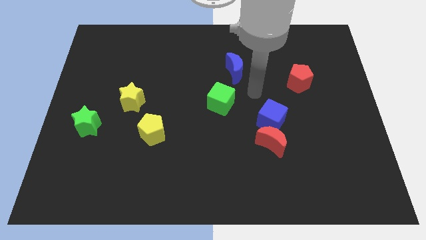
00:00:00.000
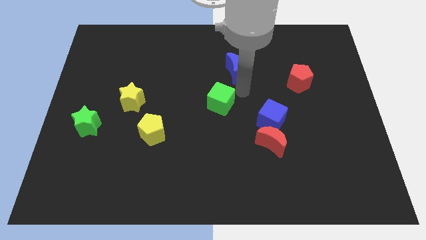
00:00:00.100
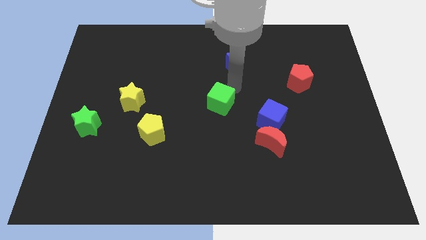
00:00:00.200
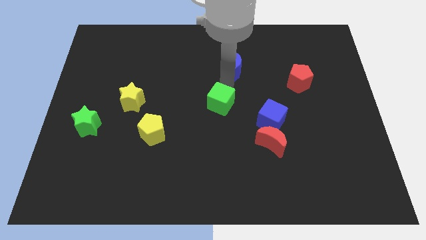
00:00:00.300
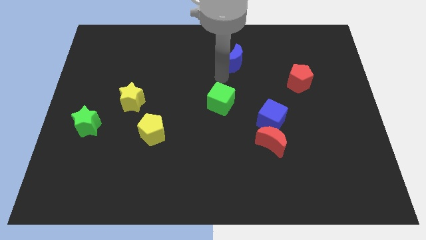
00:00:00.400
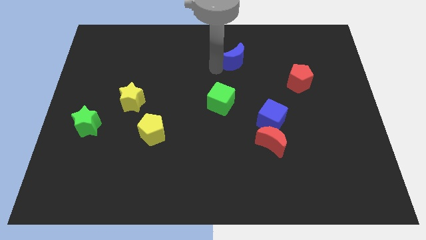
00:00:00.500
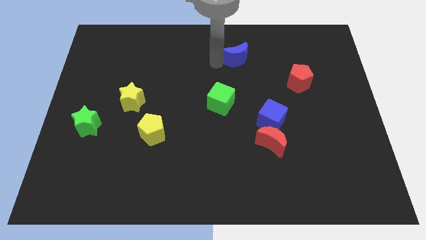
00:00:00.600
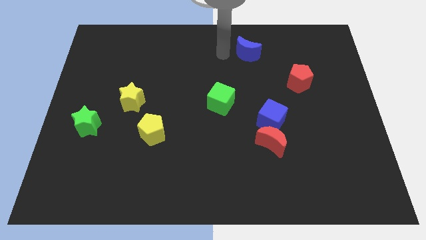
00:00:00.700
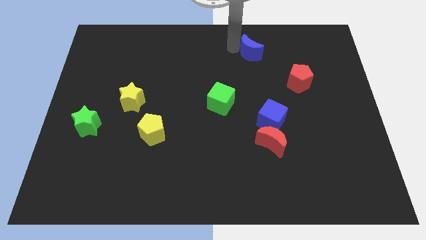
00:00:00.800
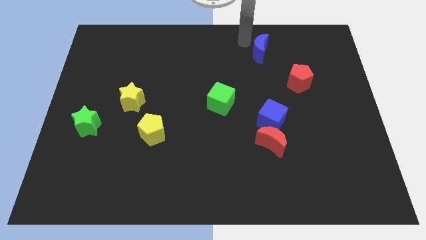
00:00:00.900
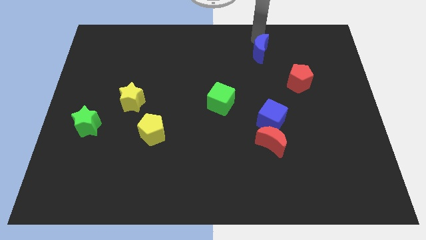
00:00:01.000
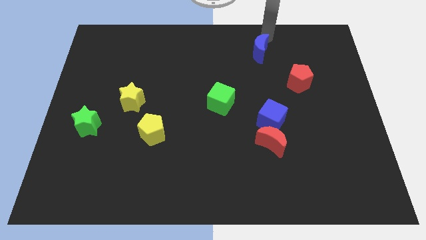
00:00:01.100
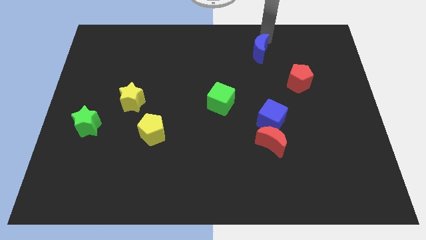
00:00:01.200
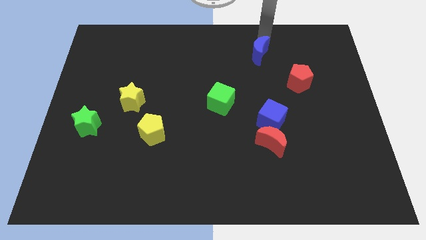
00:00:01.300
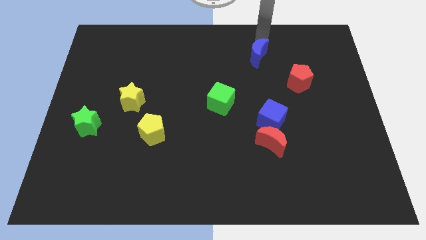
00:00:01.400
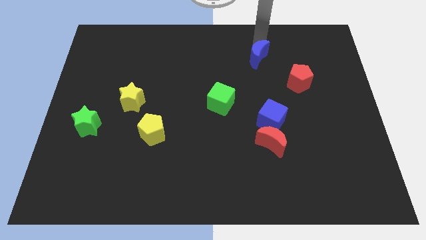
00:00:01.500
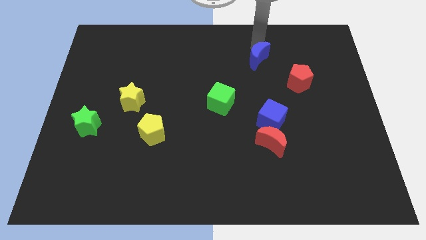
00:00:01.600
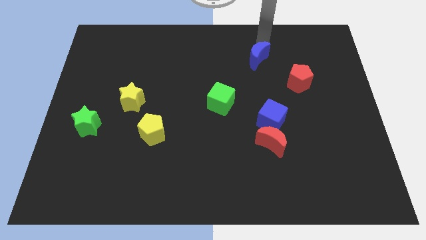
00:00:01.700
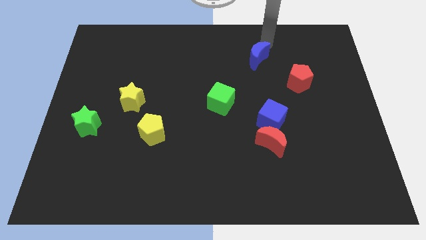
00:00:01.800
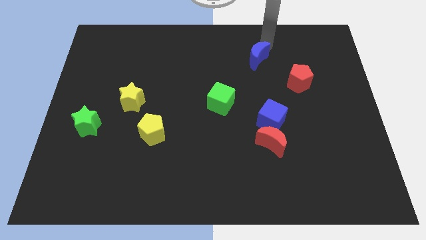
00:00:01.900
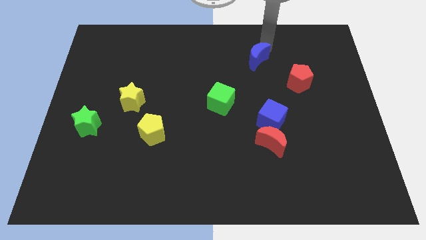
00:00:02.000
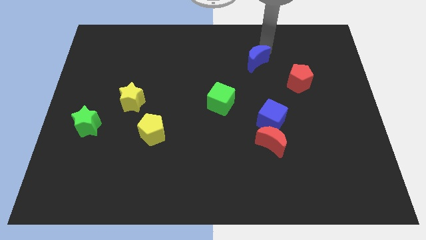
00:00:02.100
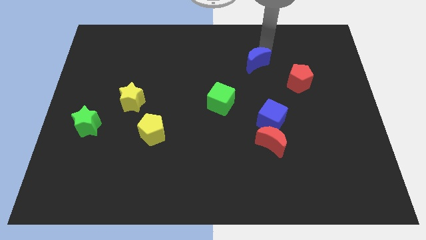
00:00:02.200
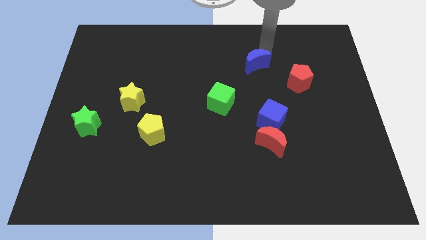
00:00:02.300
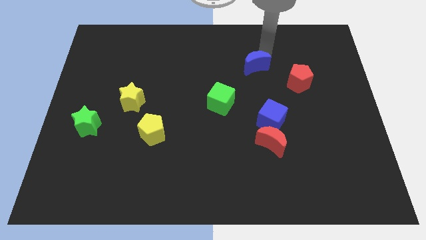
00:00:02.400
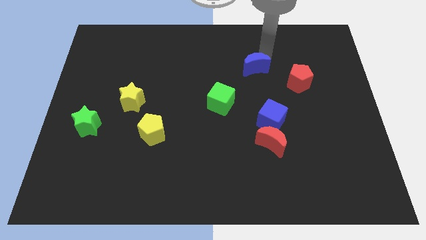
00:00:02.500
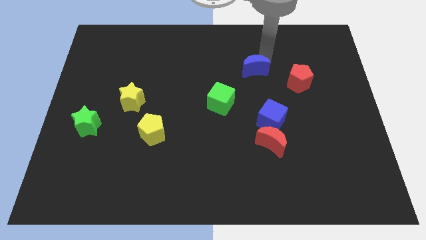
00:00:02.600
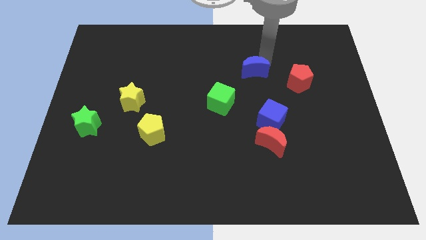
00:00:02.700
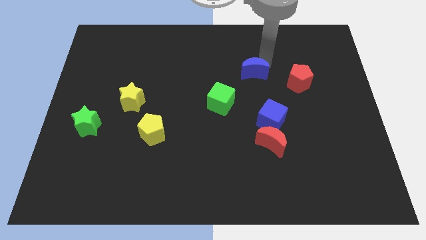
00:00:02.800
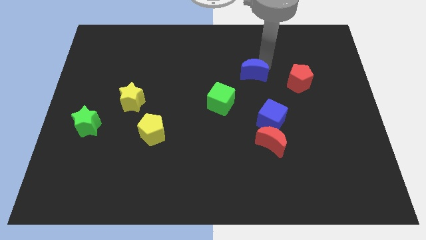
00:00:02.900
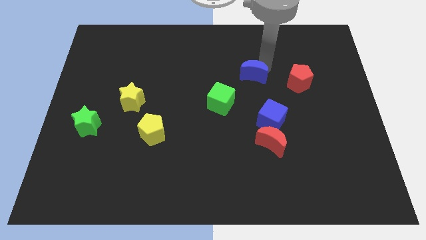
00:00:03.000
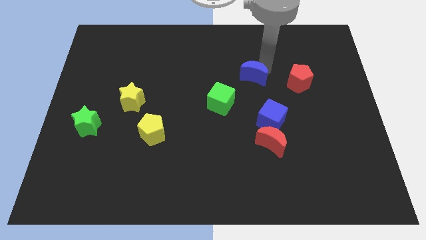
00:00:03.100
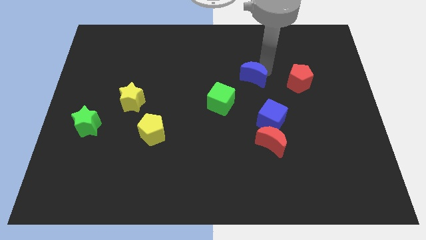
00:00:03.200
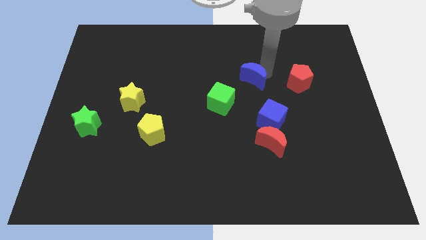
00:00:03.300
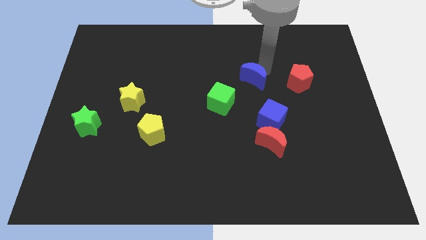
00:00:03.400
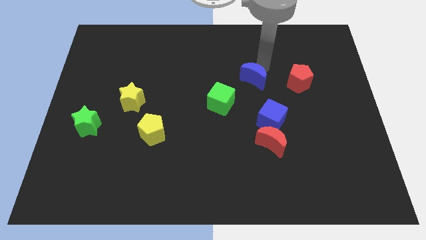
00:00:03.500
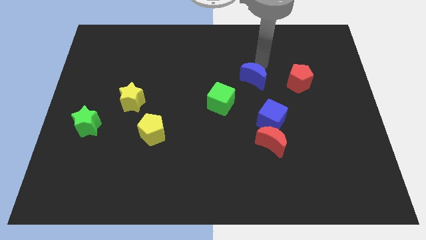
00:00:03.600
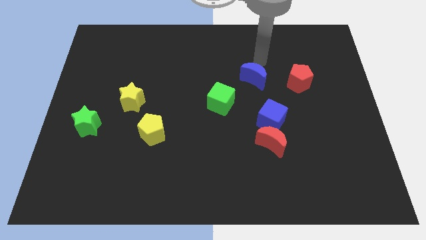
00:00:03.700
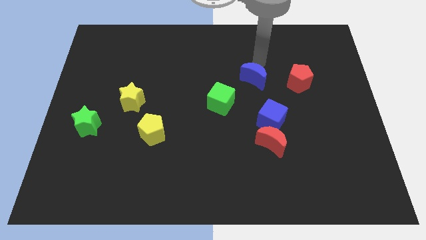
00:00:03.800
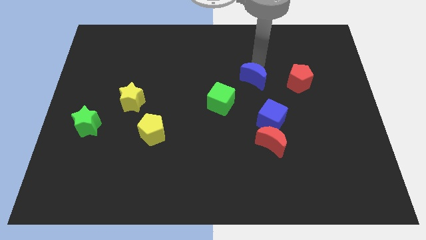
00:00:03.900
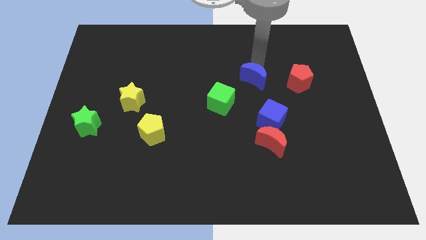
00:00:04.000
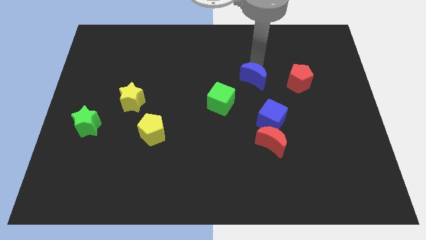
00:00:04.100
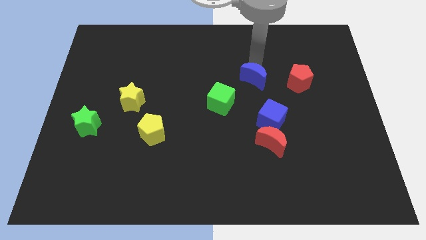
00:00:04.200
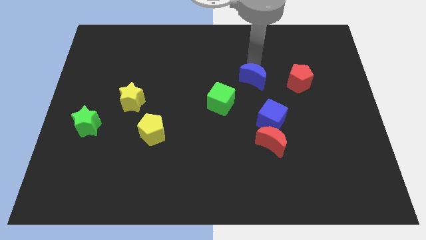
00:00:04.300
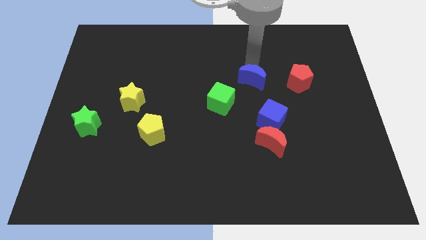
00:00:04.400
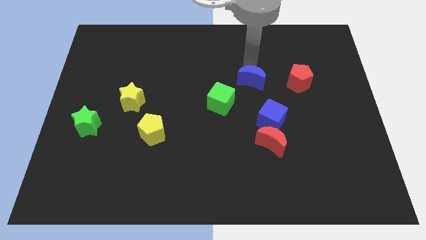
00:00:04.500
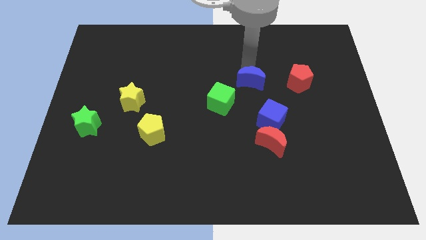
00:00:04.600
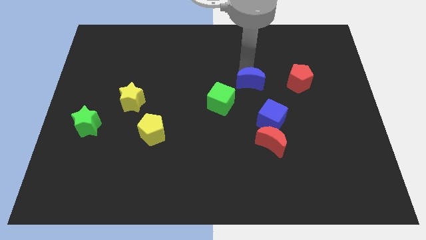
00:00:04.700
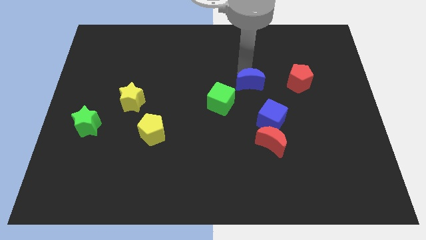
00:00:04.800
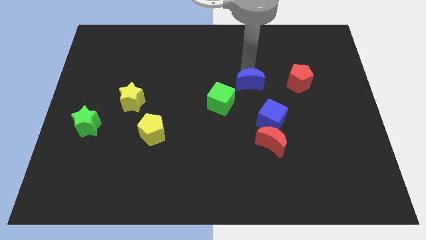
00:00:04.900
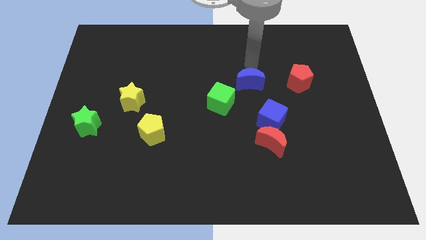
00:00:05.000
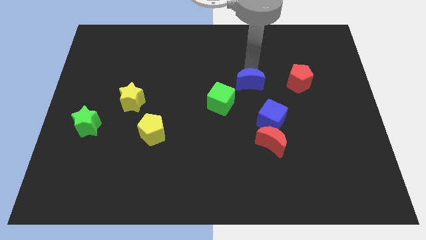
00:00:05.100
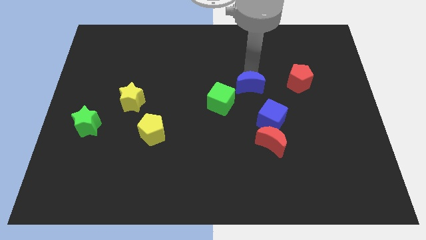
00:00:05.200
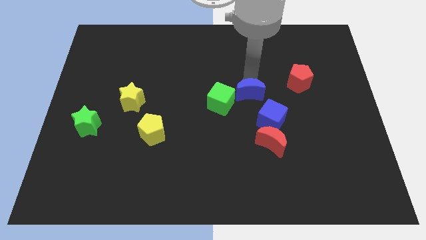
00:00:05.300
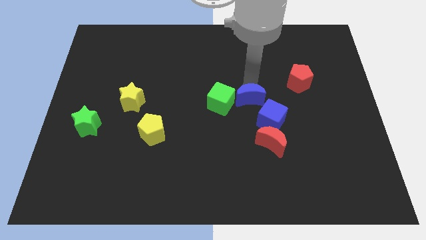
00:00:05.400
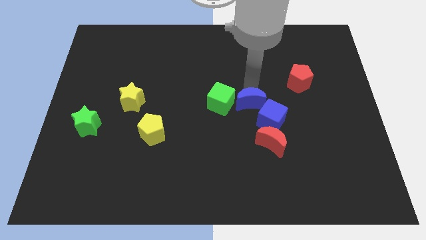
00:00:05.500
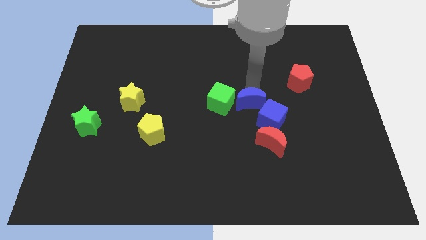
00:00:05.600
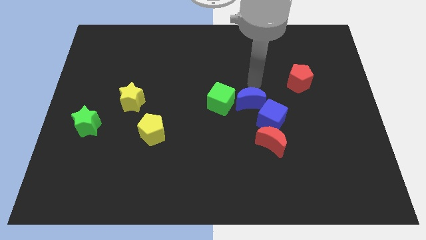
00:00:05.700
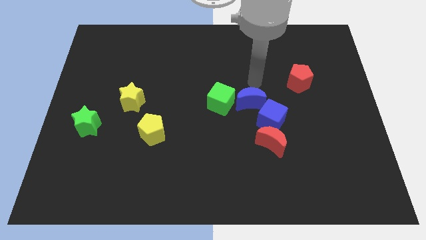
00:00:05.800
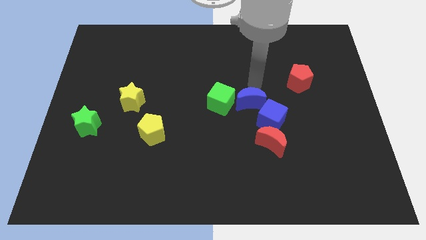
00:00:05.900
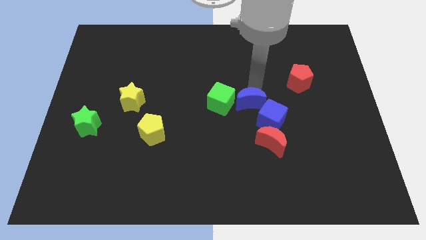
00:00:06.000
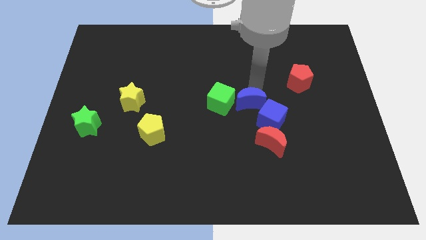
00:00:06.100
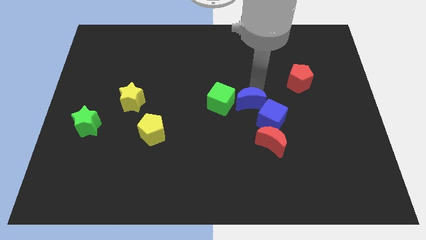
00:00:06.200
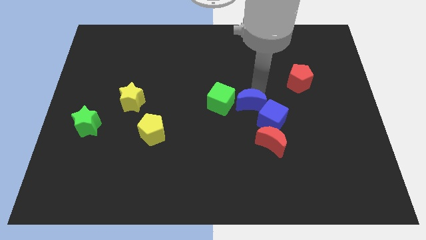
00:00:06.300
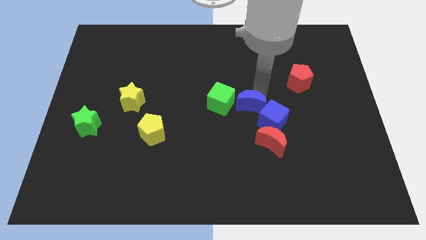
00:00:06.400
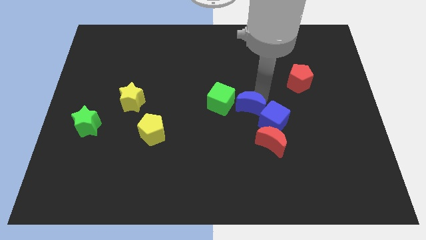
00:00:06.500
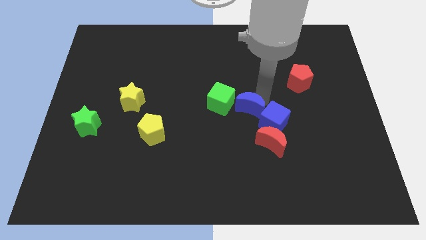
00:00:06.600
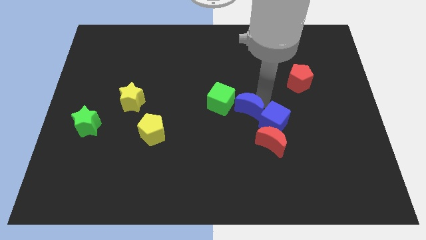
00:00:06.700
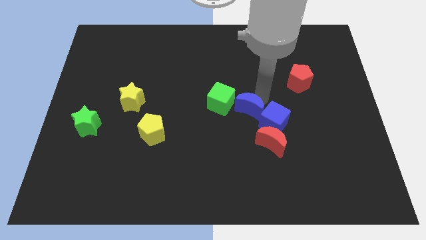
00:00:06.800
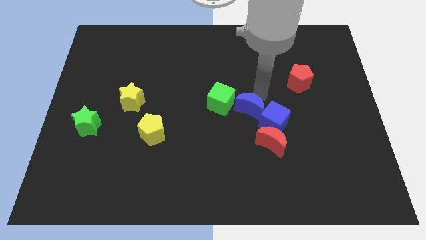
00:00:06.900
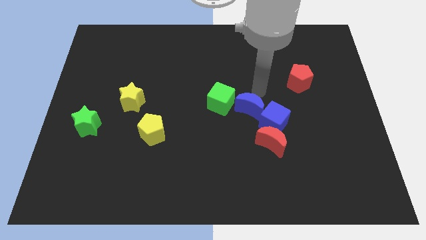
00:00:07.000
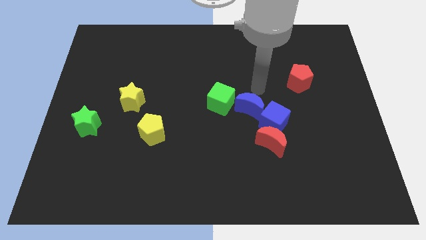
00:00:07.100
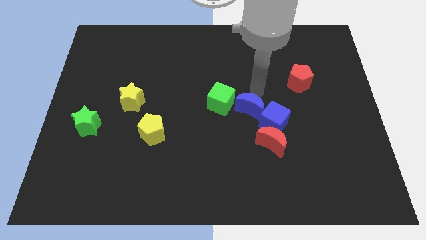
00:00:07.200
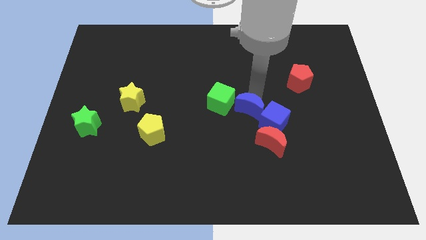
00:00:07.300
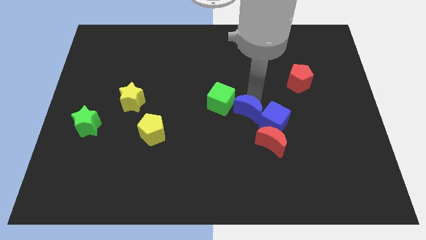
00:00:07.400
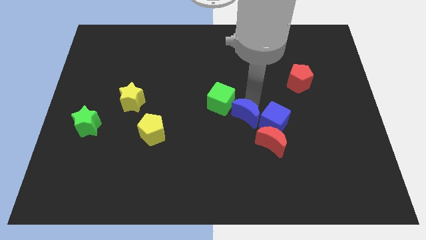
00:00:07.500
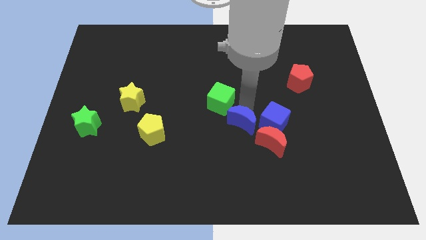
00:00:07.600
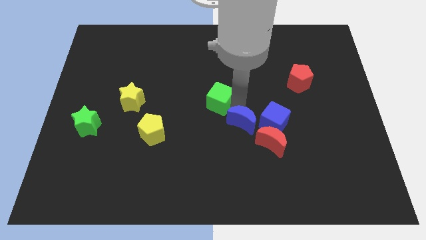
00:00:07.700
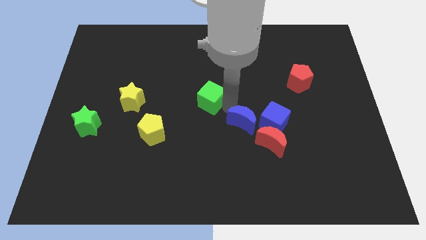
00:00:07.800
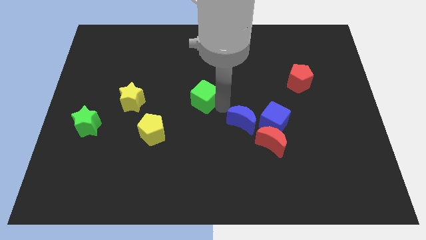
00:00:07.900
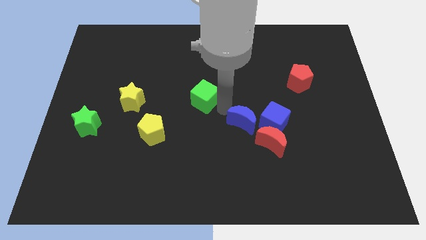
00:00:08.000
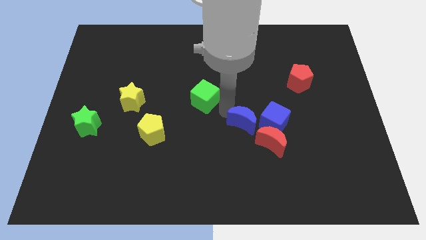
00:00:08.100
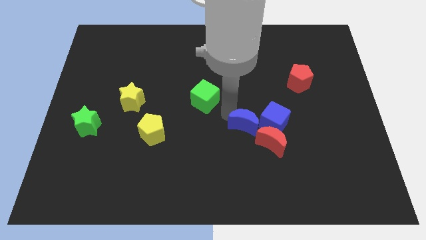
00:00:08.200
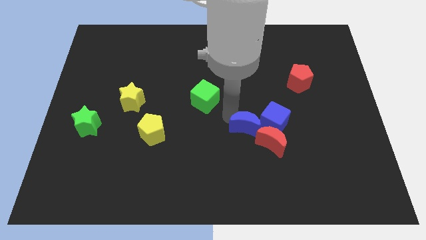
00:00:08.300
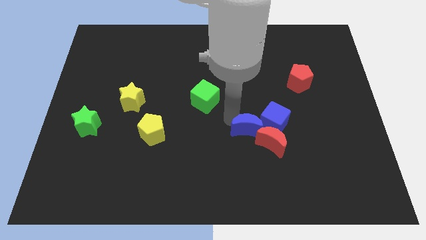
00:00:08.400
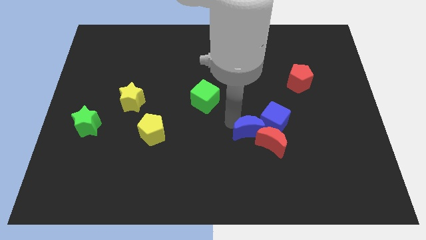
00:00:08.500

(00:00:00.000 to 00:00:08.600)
push the blue moon next to the red moon

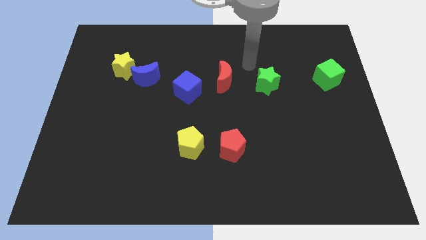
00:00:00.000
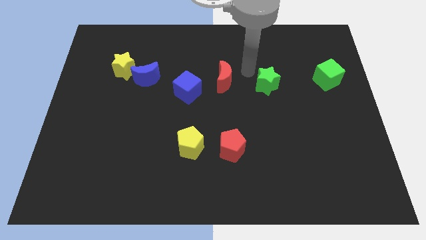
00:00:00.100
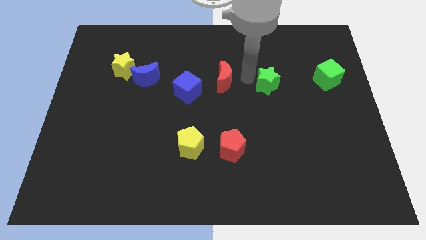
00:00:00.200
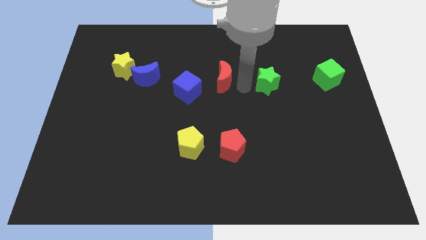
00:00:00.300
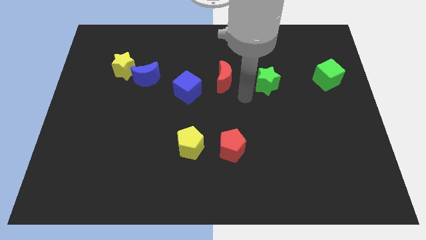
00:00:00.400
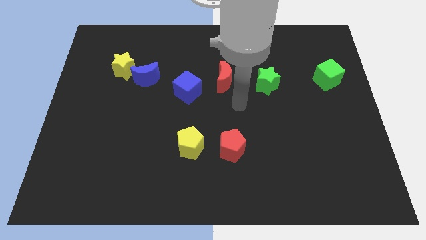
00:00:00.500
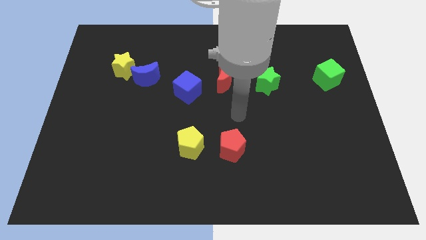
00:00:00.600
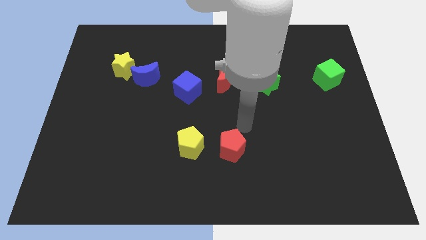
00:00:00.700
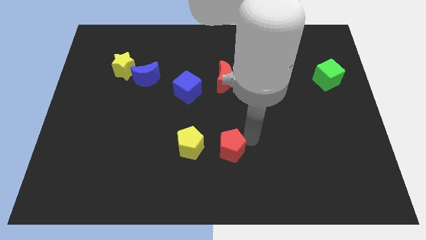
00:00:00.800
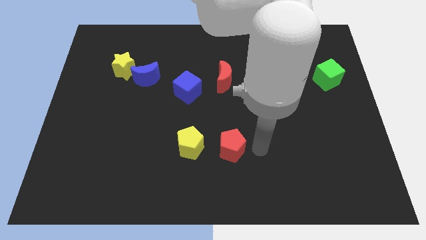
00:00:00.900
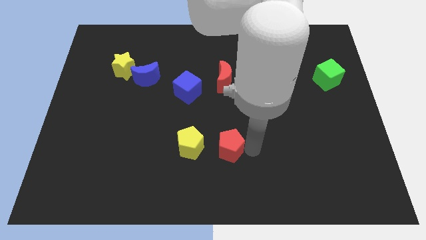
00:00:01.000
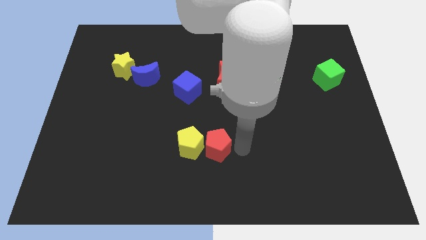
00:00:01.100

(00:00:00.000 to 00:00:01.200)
put the red pentagon close to the yellow pentagon
